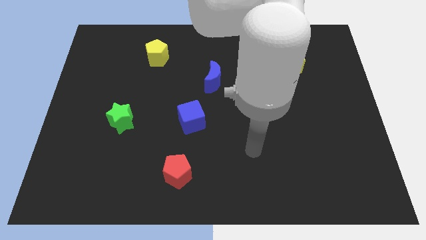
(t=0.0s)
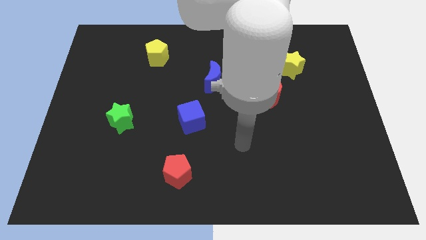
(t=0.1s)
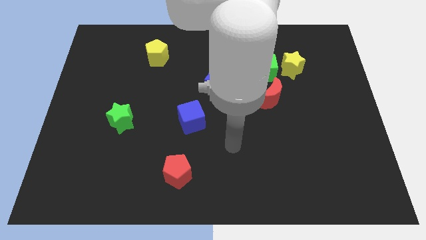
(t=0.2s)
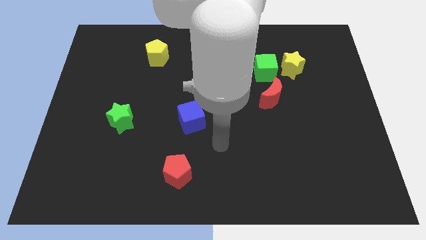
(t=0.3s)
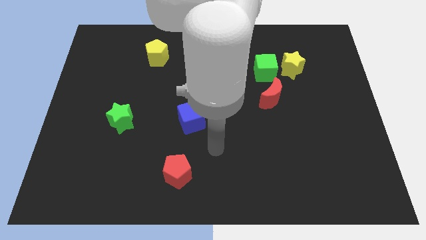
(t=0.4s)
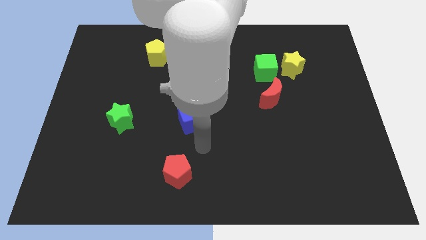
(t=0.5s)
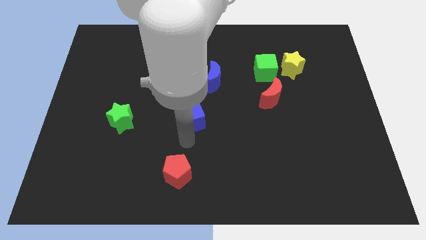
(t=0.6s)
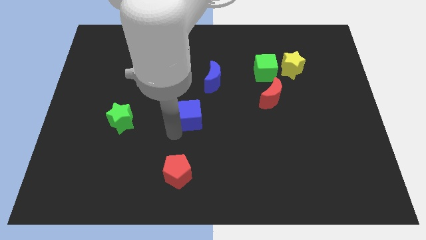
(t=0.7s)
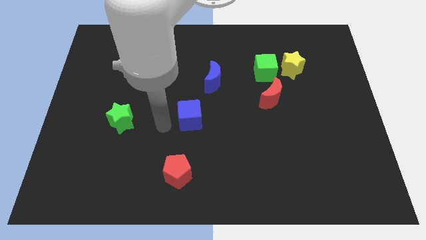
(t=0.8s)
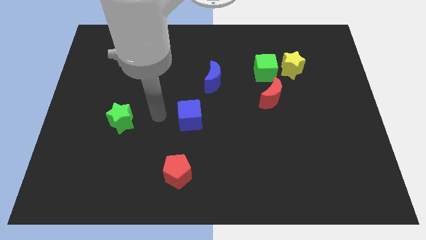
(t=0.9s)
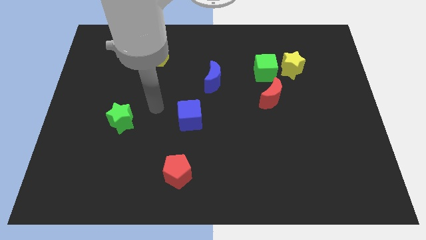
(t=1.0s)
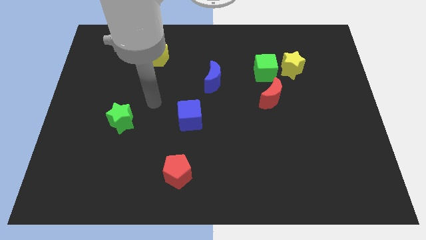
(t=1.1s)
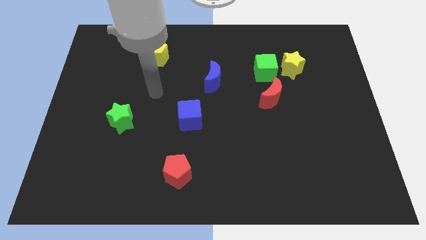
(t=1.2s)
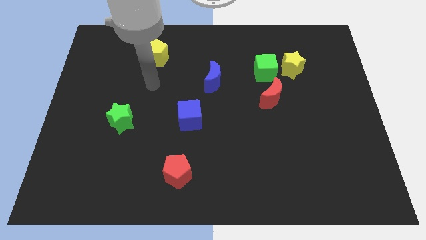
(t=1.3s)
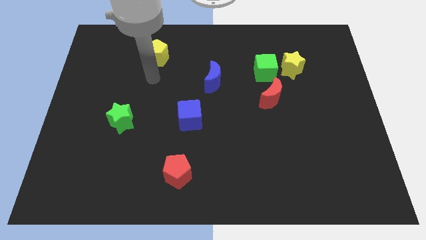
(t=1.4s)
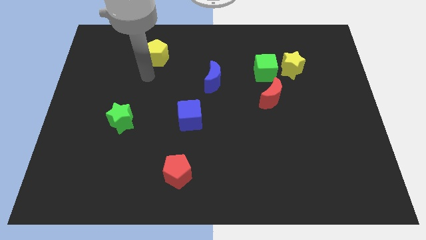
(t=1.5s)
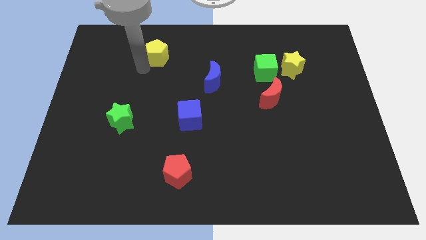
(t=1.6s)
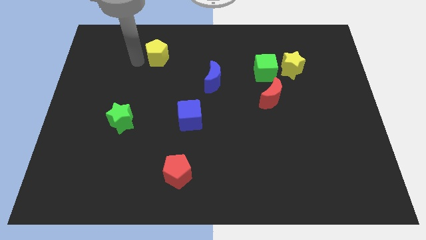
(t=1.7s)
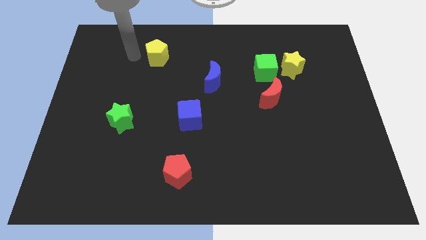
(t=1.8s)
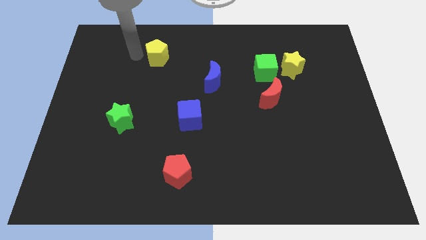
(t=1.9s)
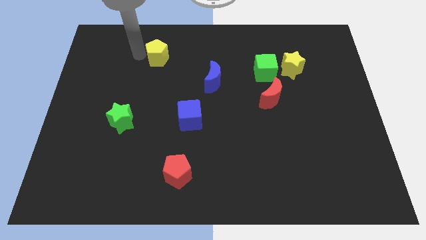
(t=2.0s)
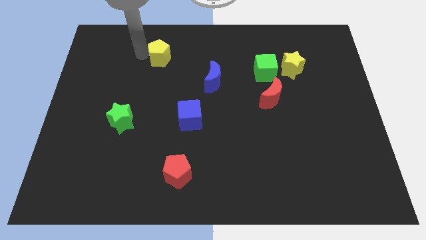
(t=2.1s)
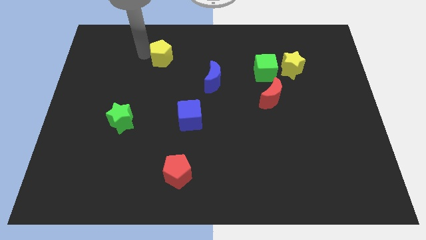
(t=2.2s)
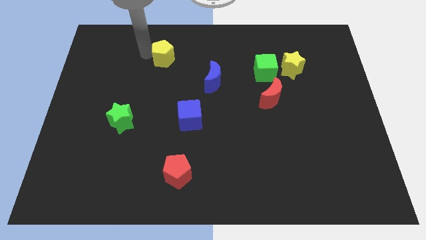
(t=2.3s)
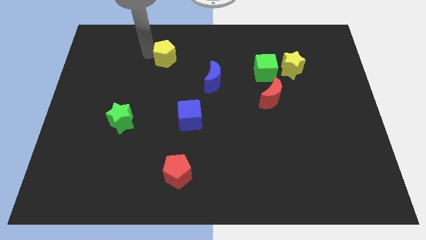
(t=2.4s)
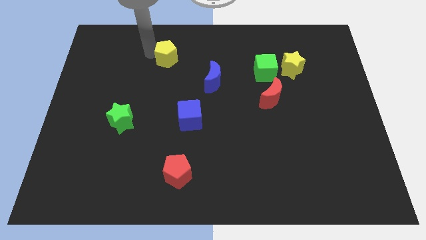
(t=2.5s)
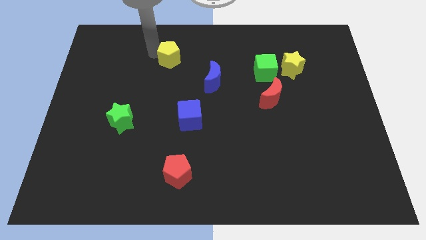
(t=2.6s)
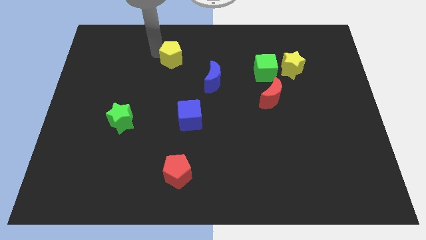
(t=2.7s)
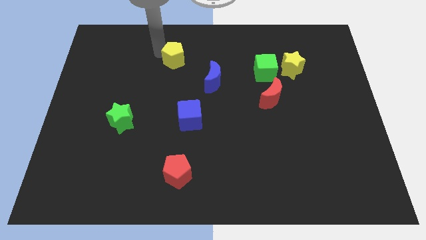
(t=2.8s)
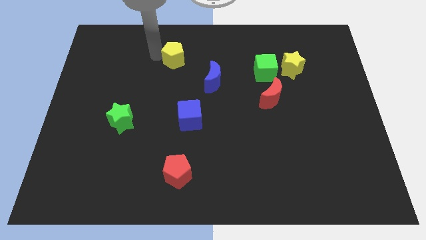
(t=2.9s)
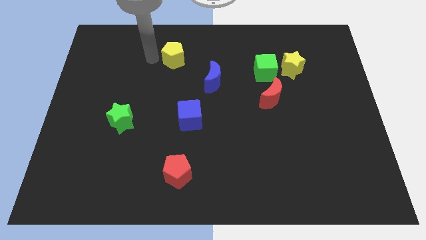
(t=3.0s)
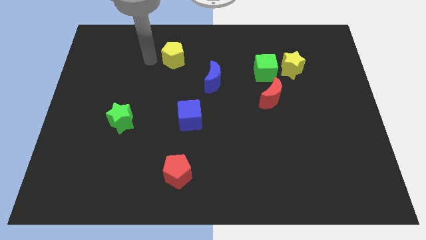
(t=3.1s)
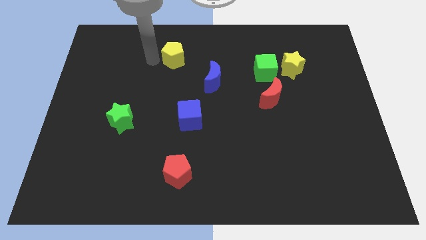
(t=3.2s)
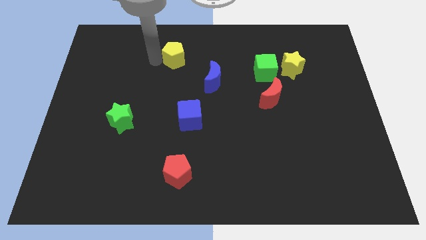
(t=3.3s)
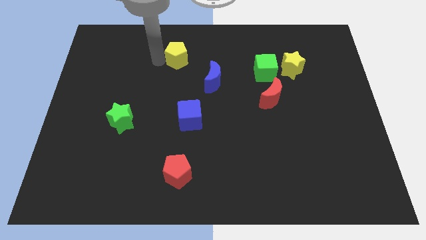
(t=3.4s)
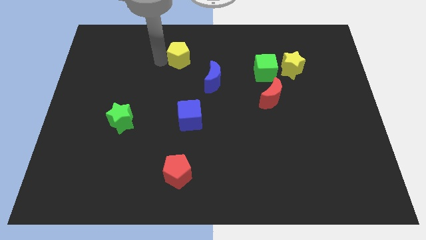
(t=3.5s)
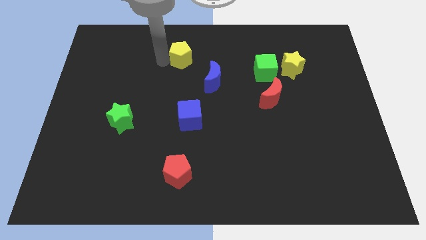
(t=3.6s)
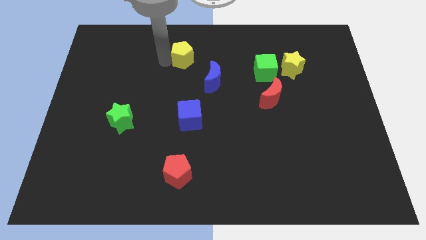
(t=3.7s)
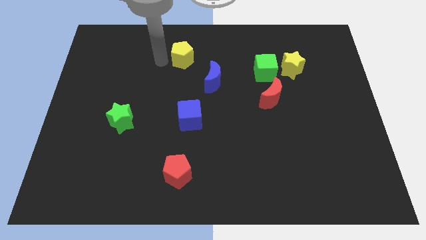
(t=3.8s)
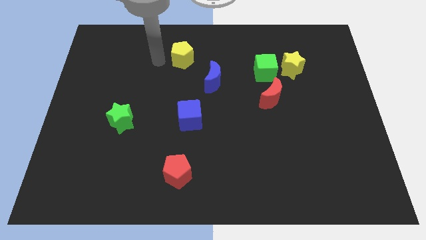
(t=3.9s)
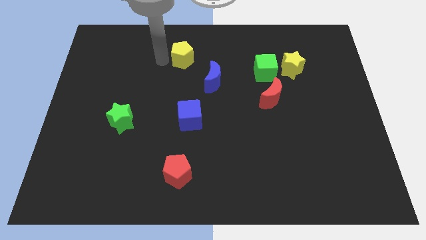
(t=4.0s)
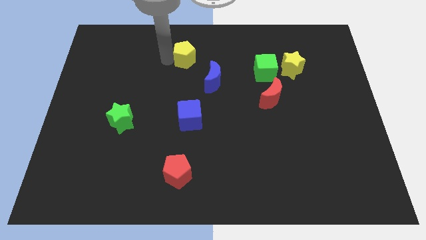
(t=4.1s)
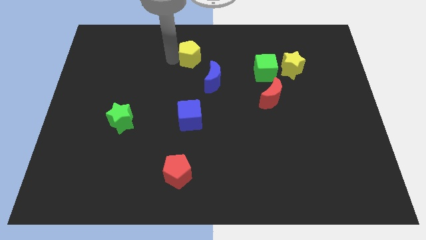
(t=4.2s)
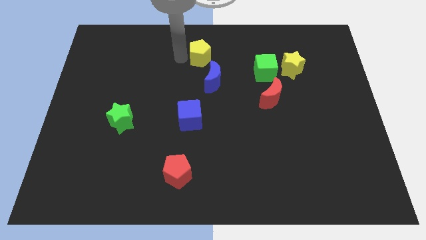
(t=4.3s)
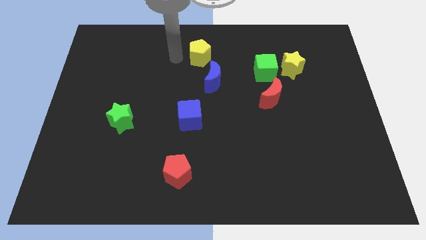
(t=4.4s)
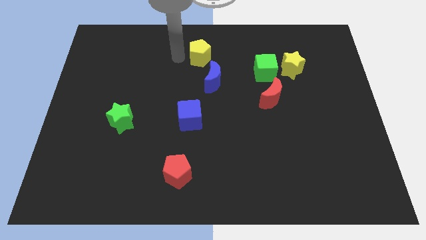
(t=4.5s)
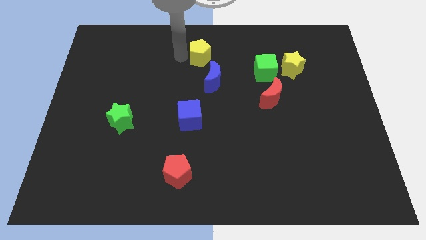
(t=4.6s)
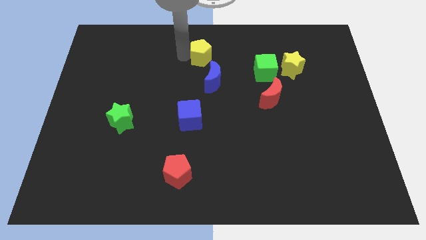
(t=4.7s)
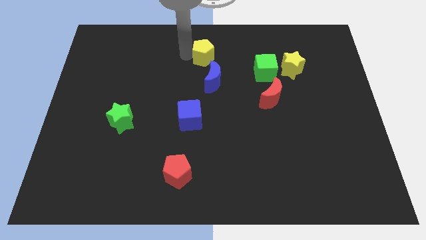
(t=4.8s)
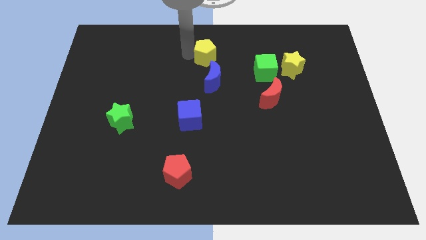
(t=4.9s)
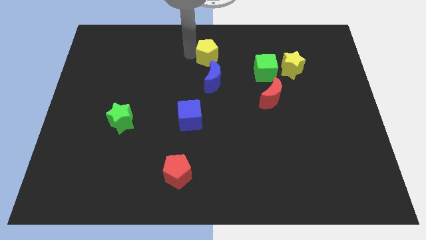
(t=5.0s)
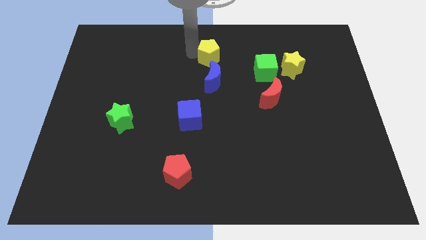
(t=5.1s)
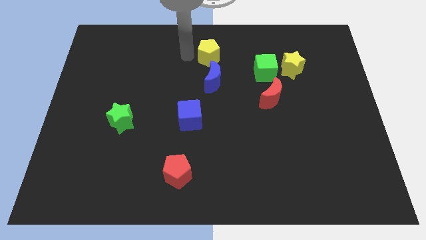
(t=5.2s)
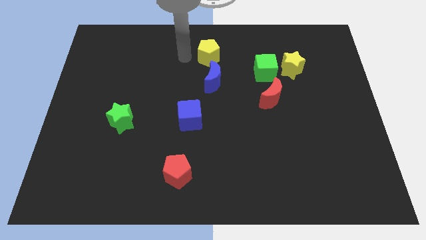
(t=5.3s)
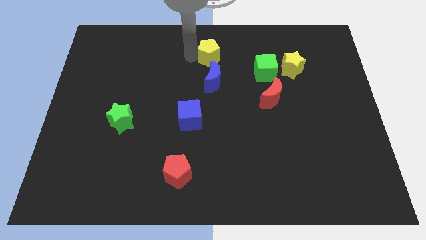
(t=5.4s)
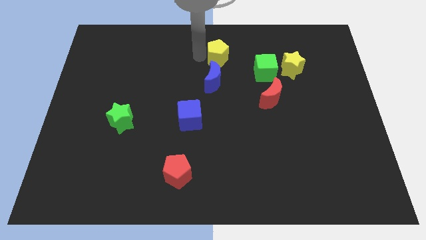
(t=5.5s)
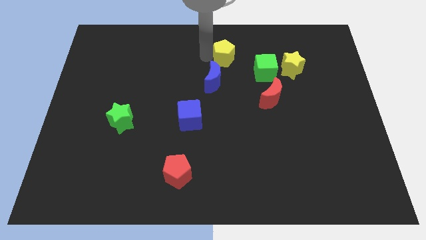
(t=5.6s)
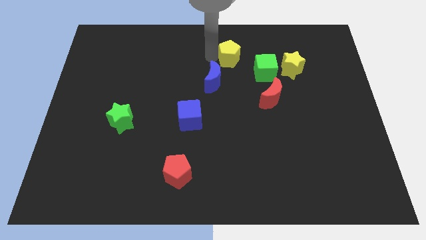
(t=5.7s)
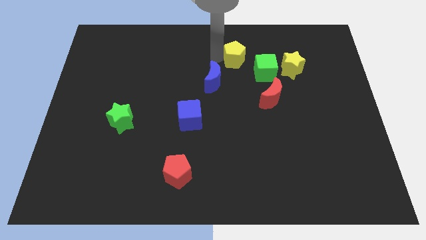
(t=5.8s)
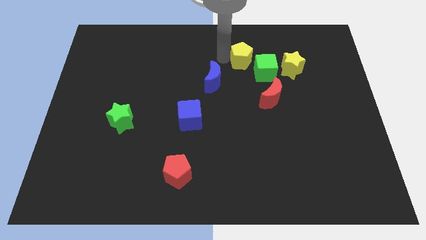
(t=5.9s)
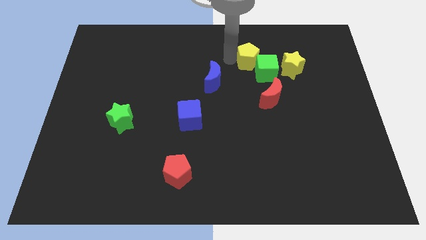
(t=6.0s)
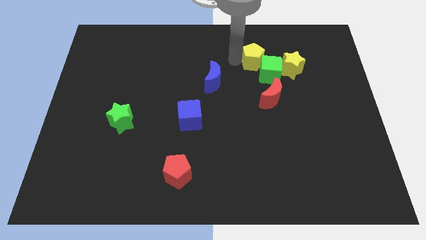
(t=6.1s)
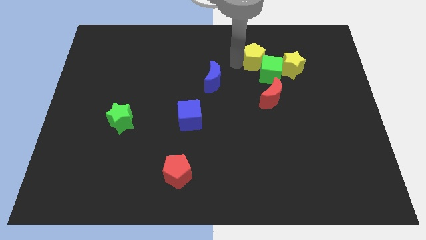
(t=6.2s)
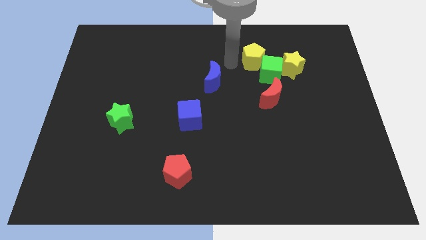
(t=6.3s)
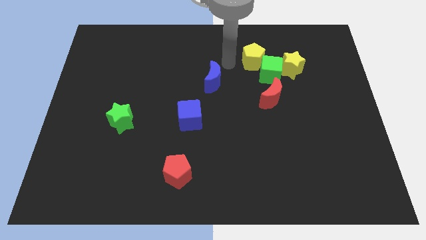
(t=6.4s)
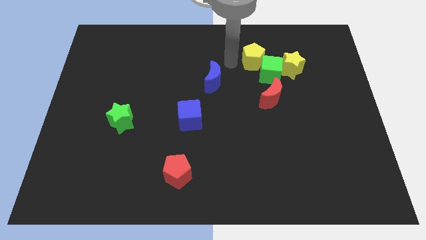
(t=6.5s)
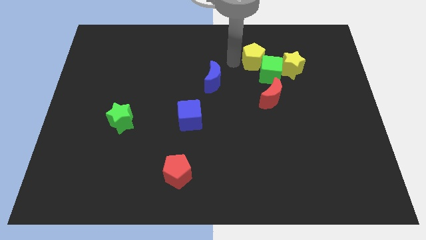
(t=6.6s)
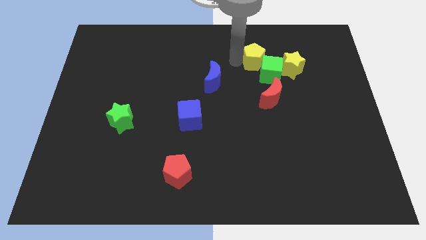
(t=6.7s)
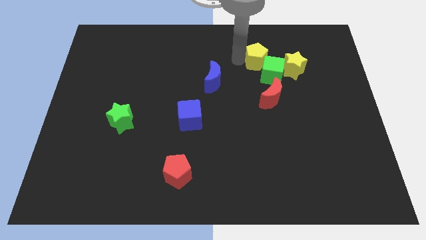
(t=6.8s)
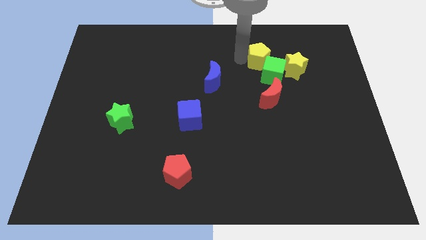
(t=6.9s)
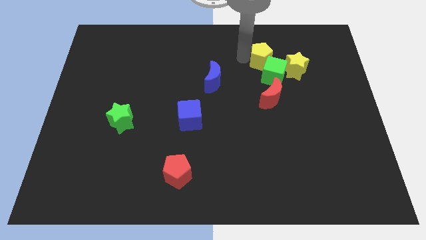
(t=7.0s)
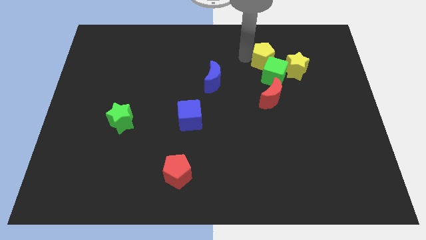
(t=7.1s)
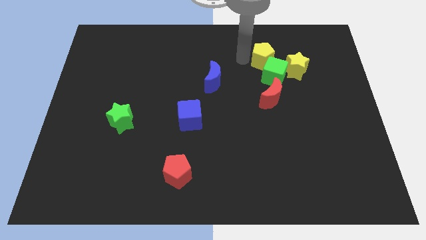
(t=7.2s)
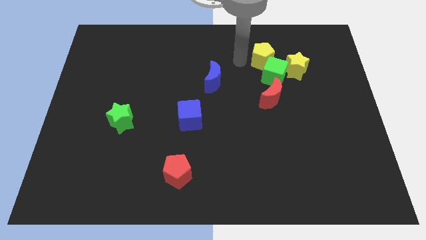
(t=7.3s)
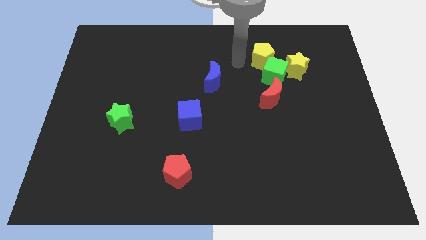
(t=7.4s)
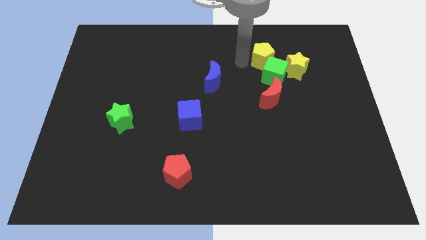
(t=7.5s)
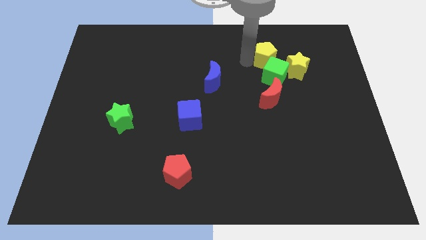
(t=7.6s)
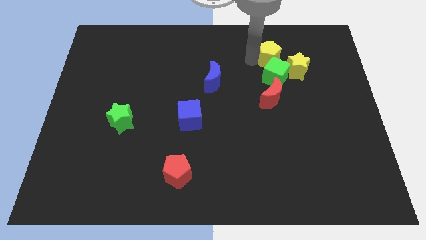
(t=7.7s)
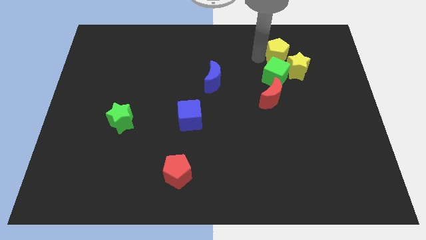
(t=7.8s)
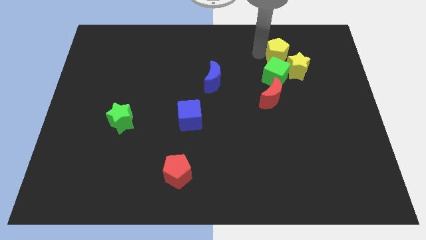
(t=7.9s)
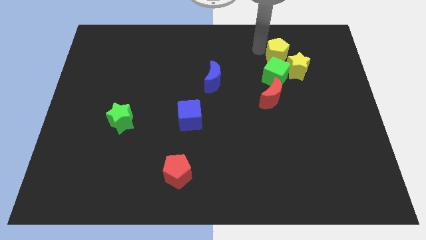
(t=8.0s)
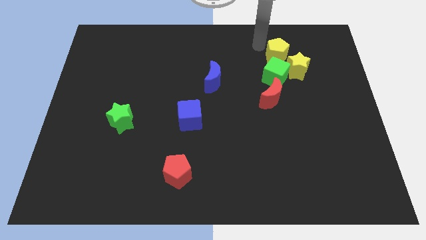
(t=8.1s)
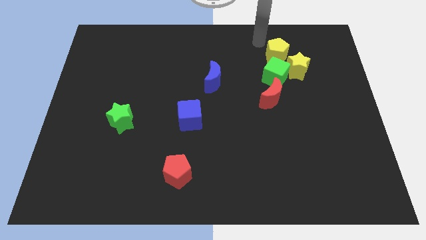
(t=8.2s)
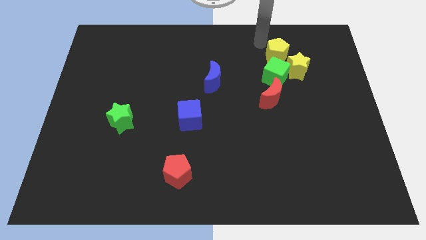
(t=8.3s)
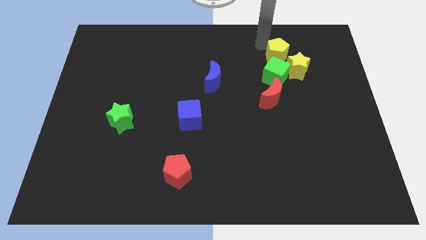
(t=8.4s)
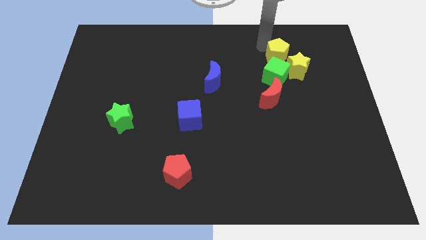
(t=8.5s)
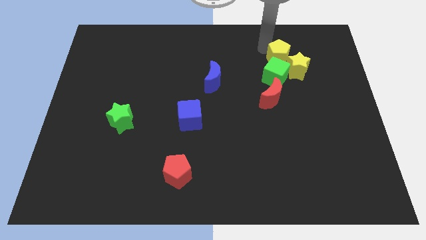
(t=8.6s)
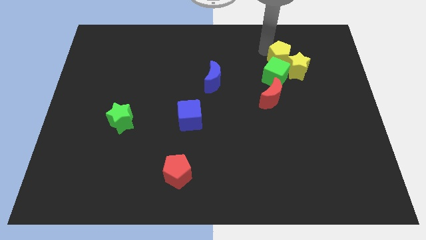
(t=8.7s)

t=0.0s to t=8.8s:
push the yellow pentagon close to the yellow star
